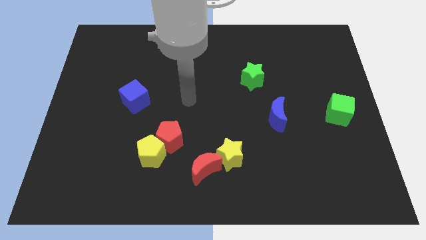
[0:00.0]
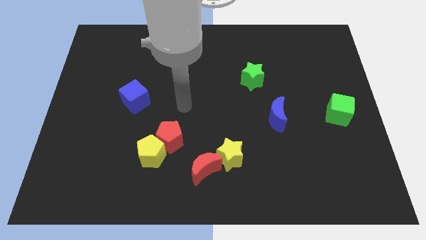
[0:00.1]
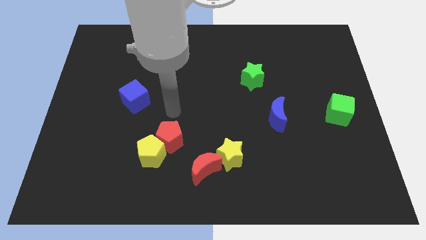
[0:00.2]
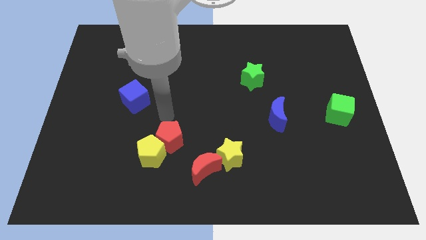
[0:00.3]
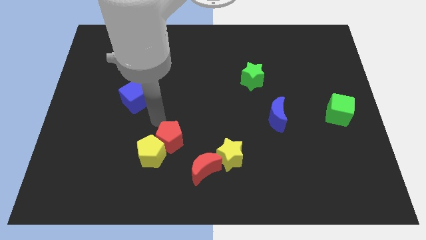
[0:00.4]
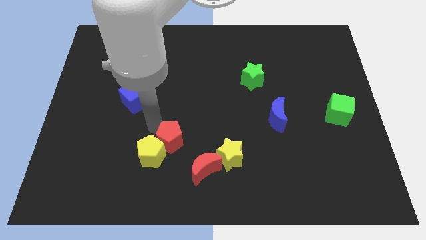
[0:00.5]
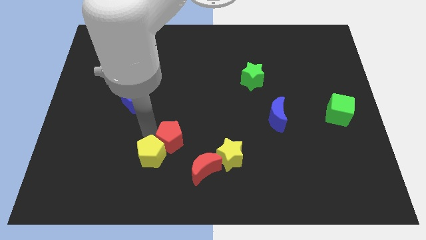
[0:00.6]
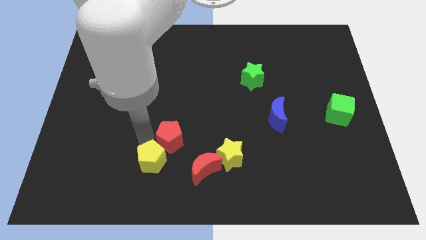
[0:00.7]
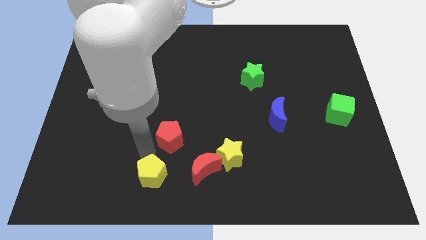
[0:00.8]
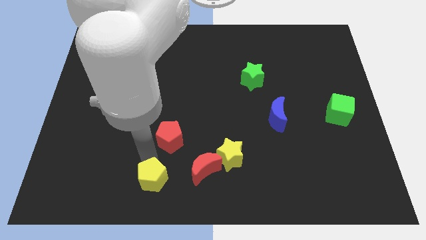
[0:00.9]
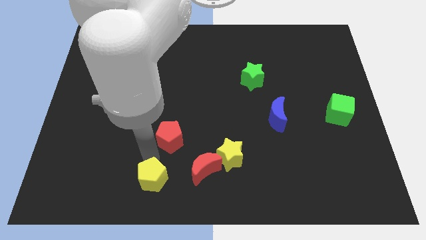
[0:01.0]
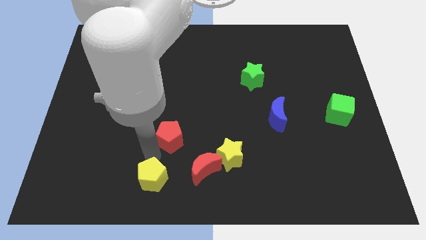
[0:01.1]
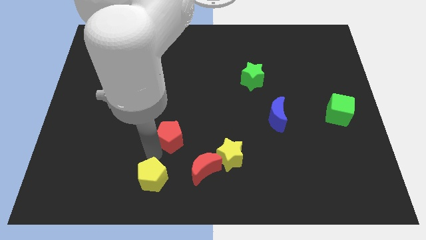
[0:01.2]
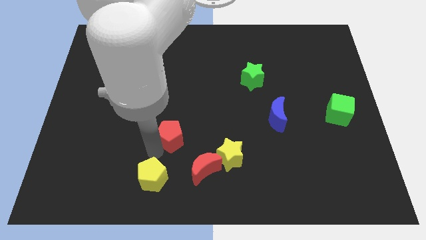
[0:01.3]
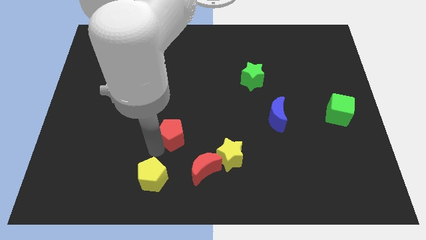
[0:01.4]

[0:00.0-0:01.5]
move the red pentagon away from the yellow pentagon

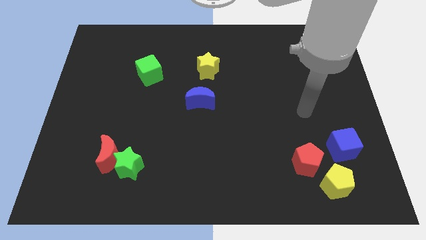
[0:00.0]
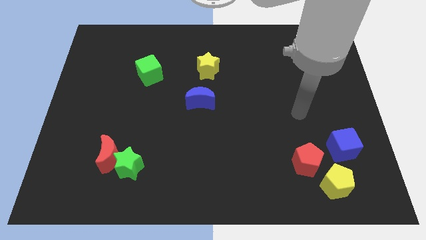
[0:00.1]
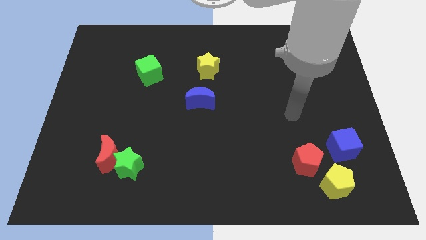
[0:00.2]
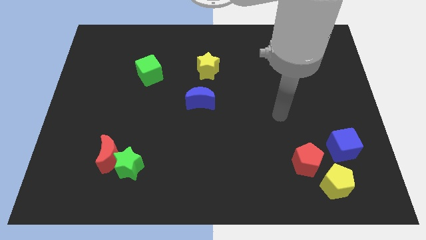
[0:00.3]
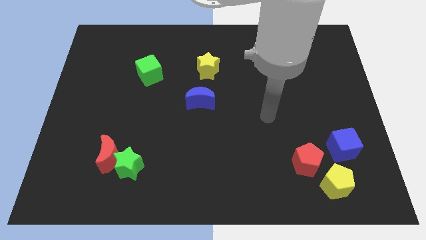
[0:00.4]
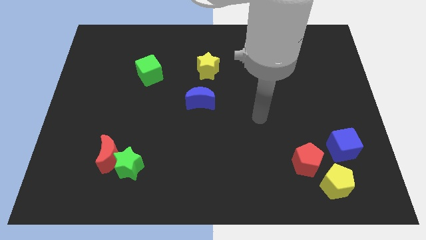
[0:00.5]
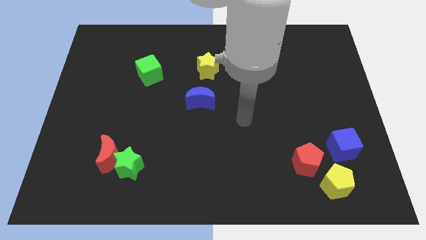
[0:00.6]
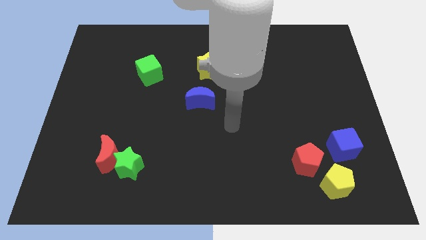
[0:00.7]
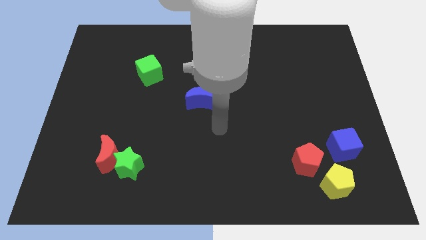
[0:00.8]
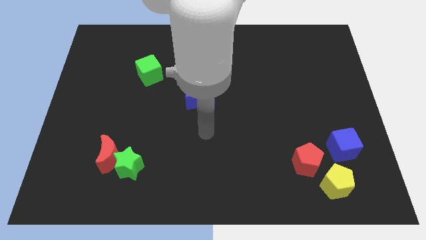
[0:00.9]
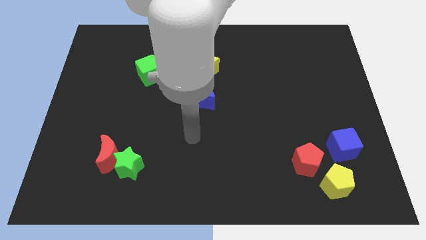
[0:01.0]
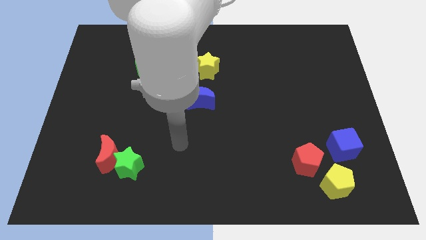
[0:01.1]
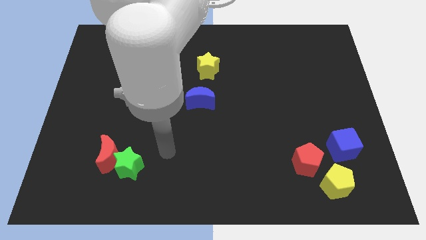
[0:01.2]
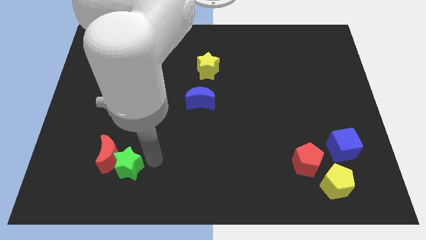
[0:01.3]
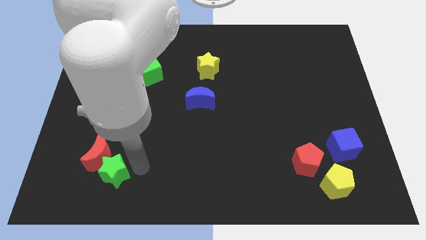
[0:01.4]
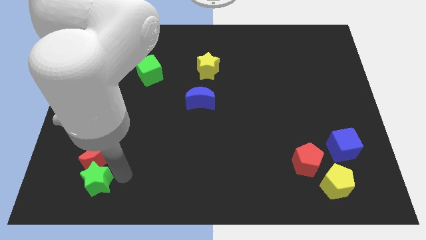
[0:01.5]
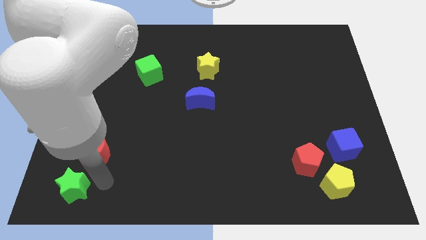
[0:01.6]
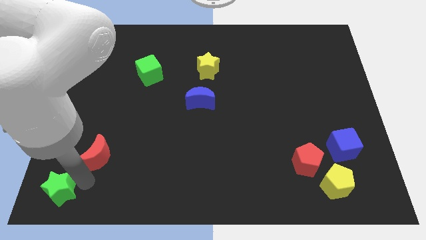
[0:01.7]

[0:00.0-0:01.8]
move the red moon away from the green star

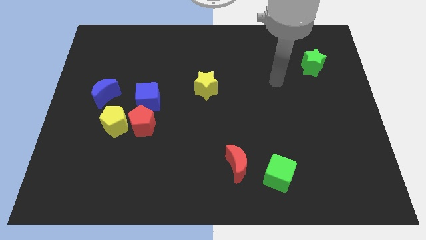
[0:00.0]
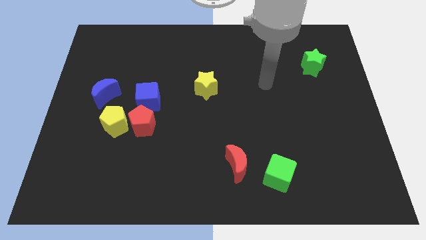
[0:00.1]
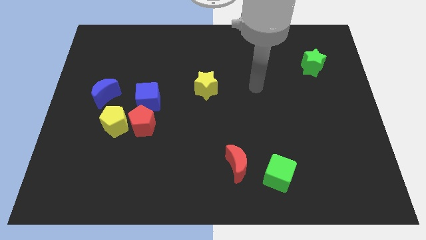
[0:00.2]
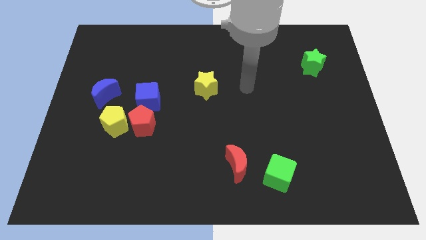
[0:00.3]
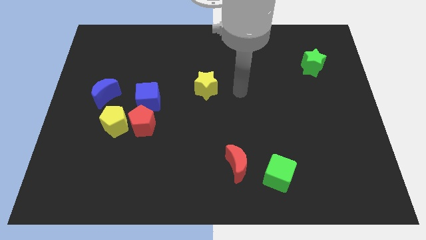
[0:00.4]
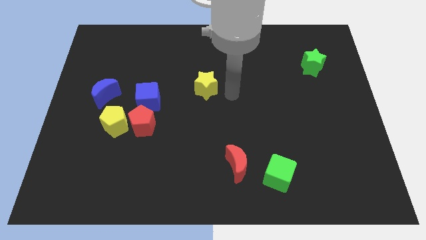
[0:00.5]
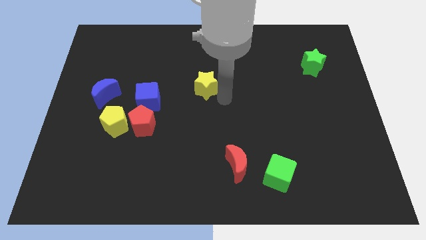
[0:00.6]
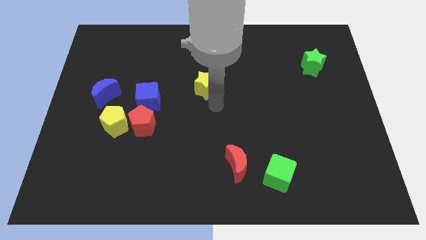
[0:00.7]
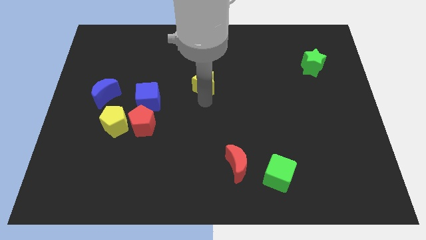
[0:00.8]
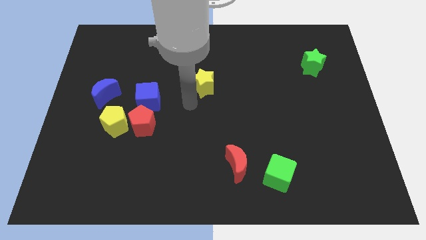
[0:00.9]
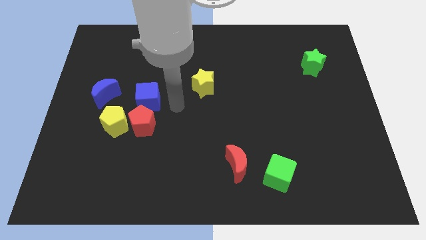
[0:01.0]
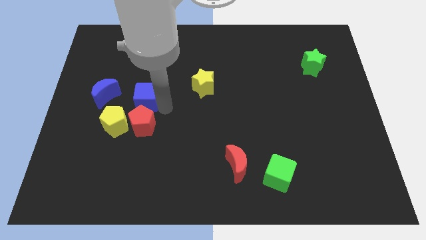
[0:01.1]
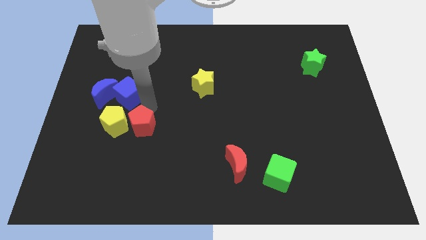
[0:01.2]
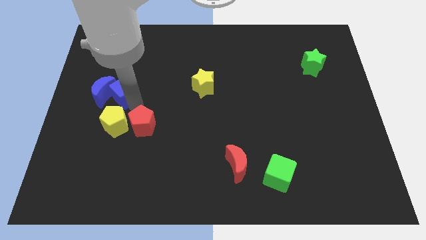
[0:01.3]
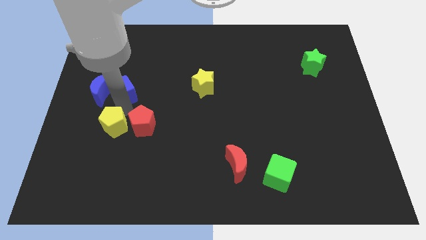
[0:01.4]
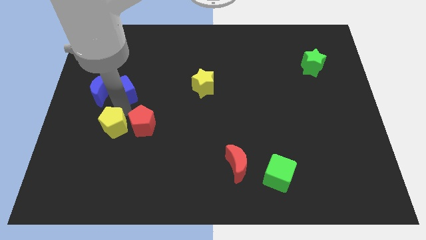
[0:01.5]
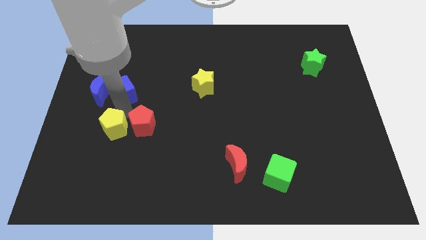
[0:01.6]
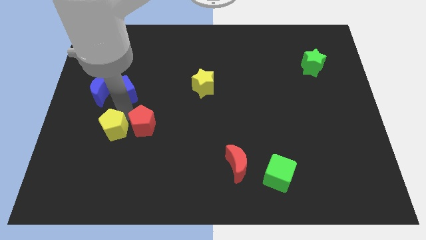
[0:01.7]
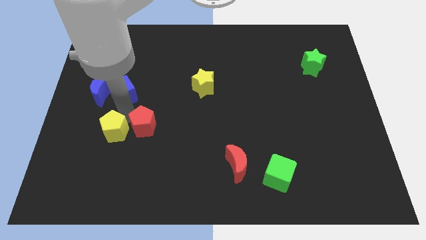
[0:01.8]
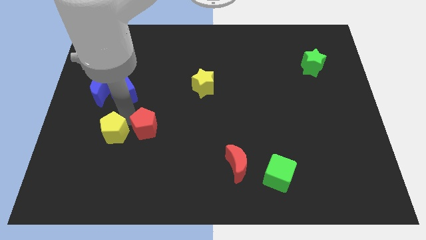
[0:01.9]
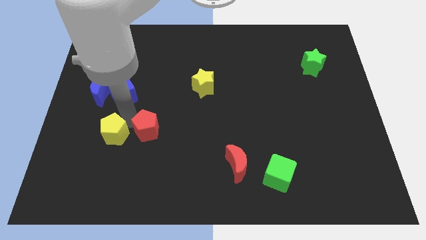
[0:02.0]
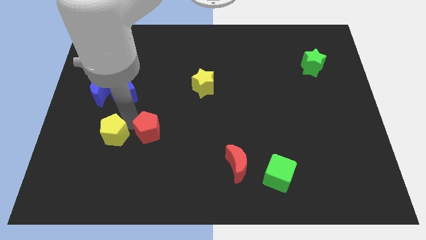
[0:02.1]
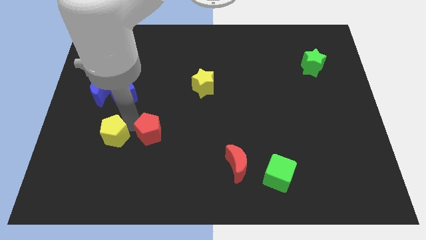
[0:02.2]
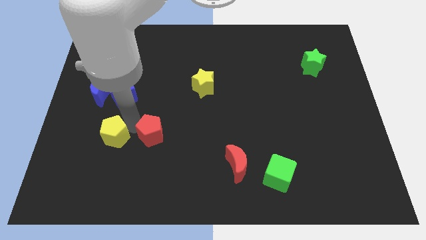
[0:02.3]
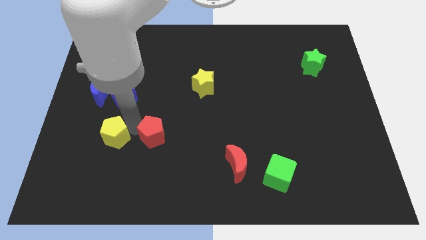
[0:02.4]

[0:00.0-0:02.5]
pull the red pentagon apart from the yellow pentagon and blue cube

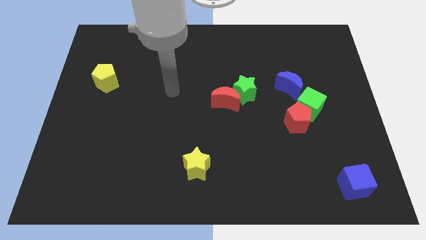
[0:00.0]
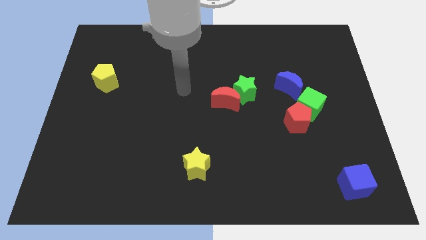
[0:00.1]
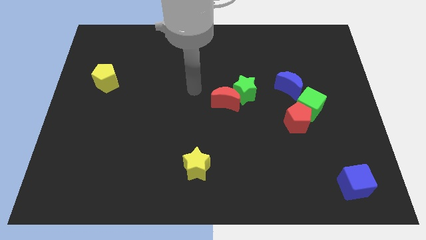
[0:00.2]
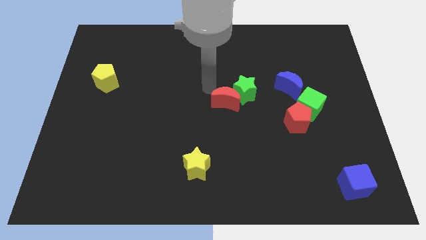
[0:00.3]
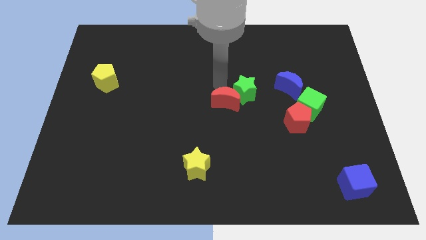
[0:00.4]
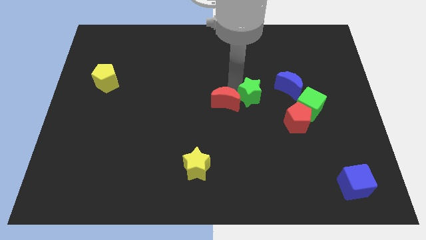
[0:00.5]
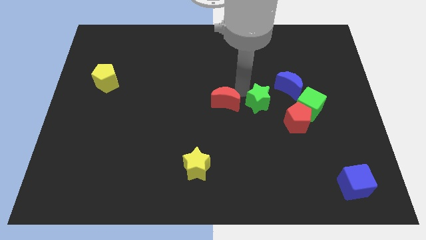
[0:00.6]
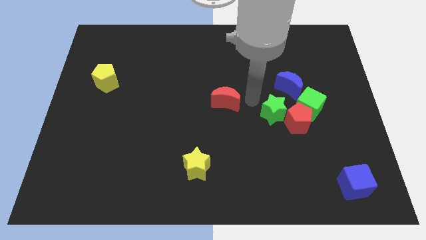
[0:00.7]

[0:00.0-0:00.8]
pull the red moon apart from the green star

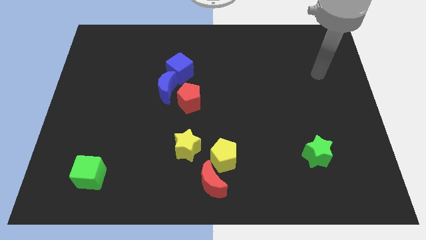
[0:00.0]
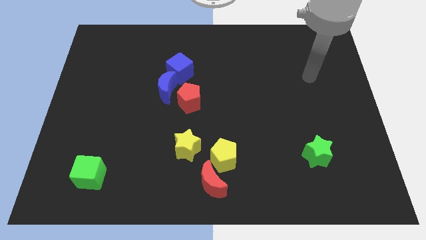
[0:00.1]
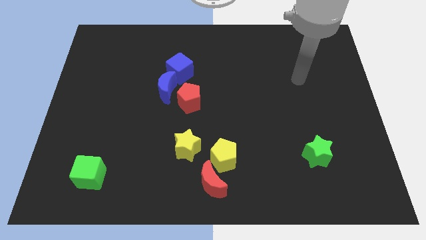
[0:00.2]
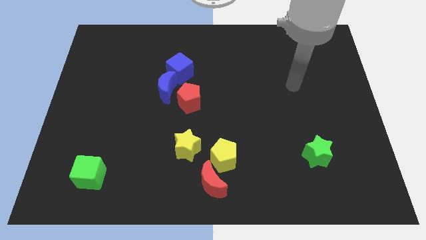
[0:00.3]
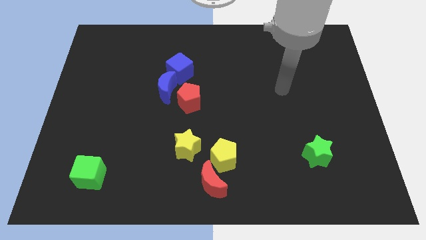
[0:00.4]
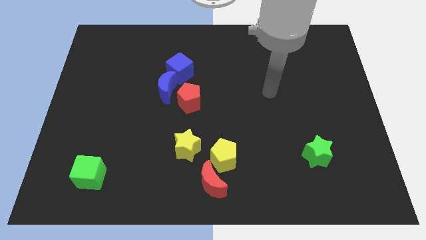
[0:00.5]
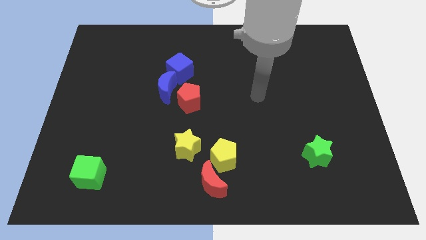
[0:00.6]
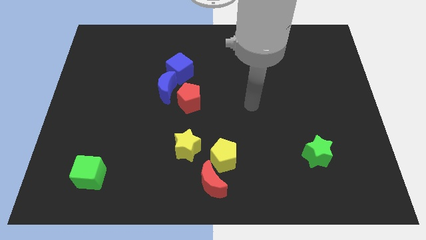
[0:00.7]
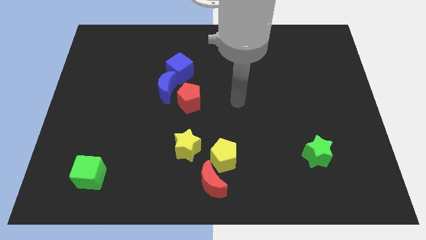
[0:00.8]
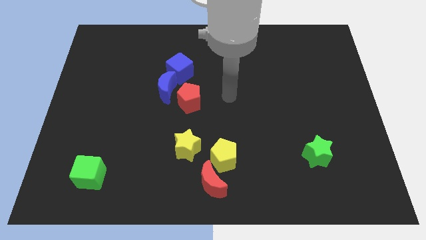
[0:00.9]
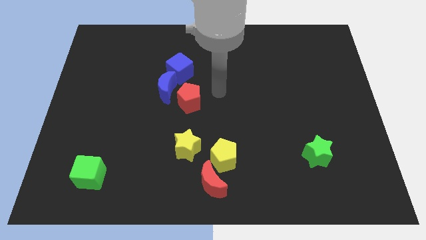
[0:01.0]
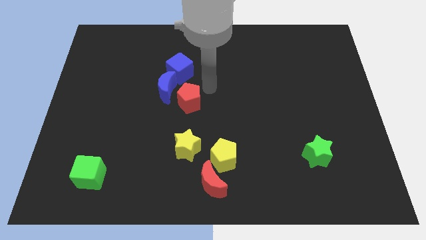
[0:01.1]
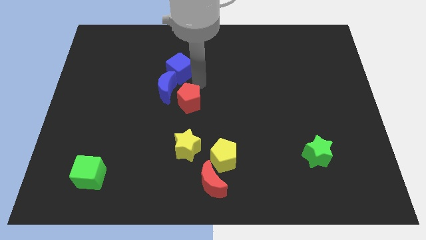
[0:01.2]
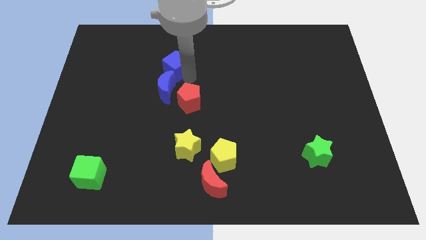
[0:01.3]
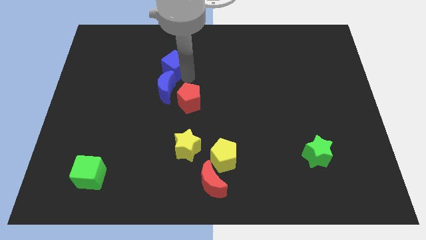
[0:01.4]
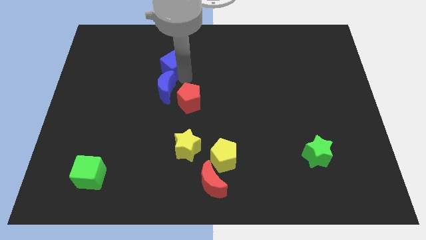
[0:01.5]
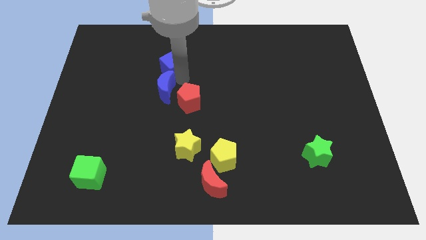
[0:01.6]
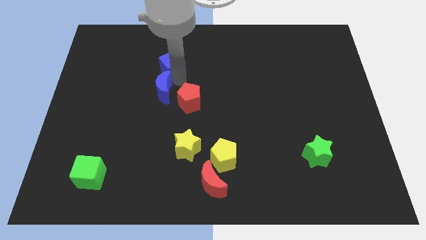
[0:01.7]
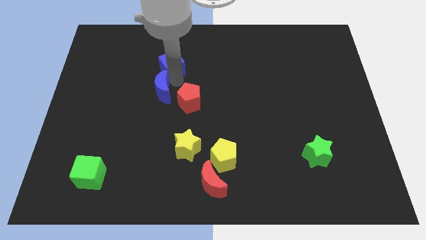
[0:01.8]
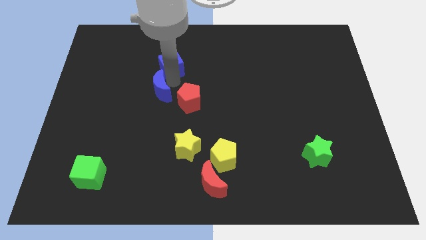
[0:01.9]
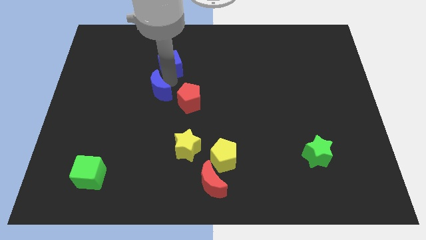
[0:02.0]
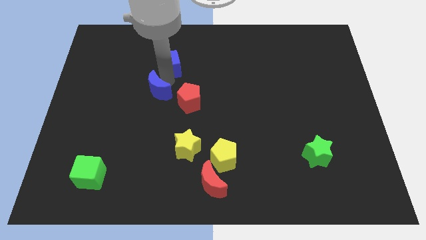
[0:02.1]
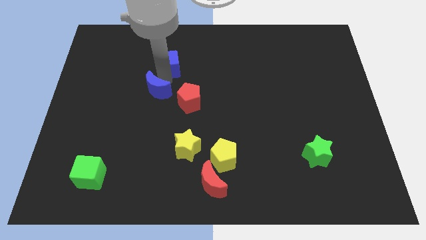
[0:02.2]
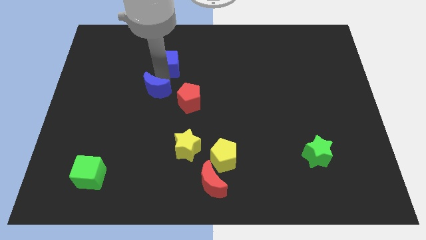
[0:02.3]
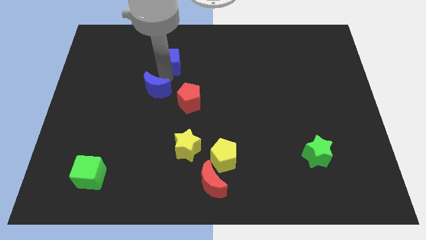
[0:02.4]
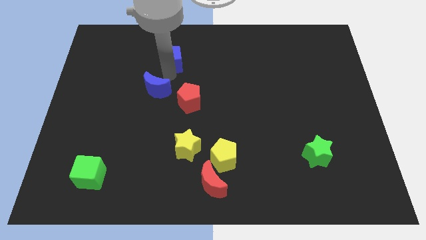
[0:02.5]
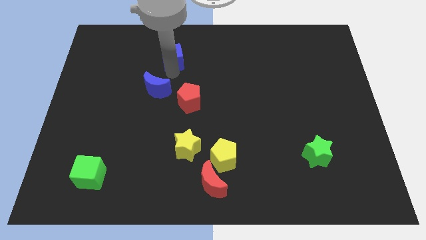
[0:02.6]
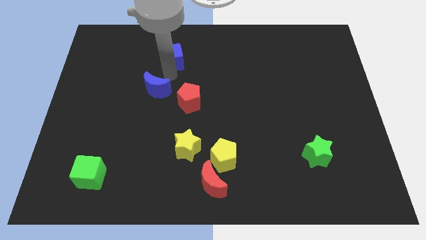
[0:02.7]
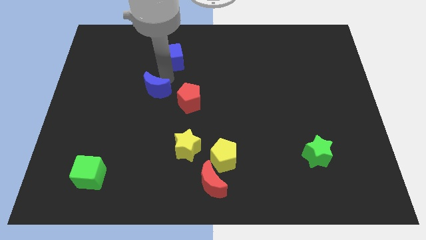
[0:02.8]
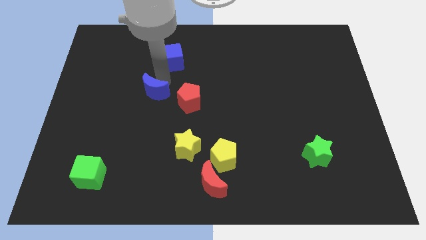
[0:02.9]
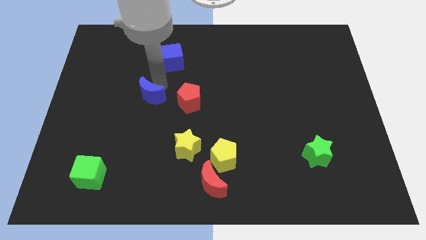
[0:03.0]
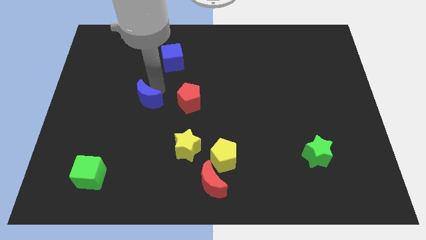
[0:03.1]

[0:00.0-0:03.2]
move the blue moon away from the blue cube and red pentagon
